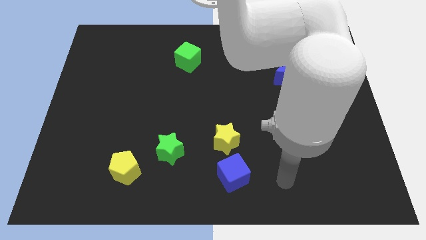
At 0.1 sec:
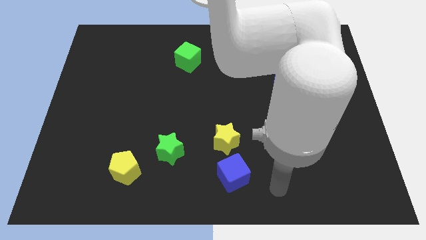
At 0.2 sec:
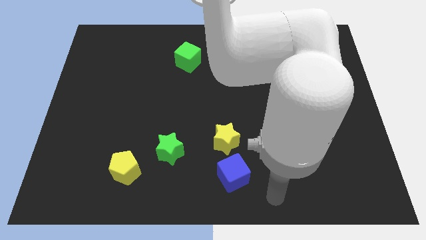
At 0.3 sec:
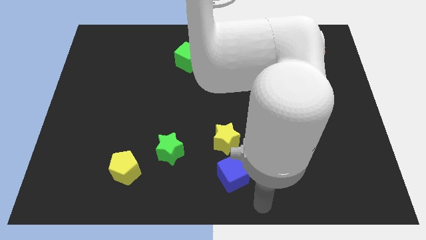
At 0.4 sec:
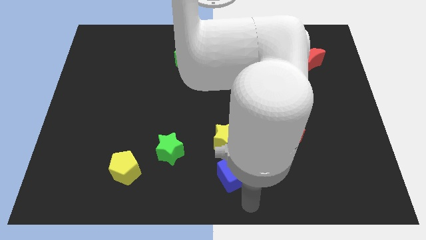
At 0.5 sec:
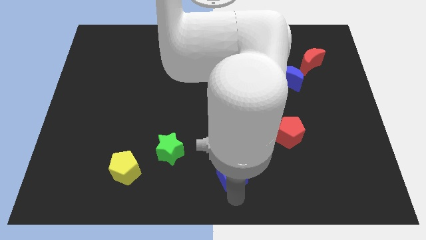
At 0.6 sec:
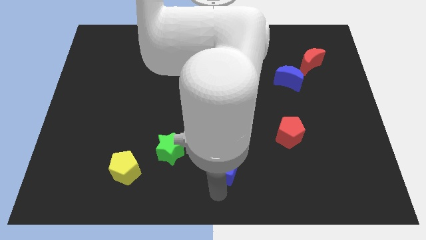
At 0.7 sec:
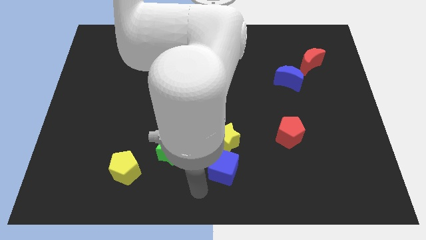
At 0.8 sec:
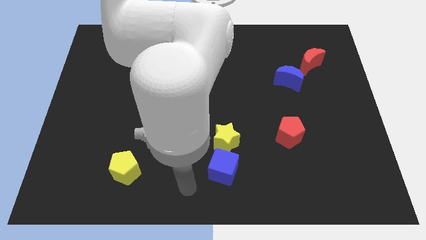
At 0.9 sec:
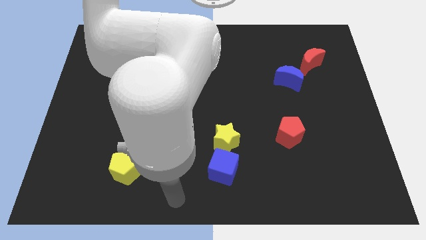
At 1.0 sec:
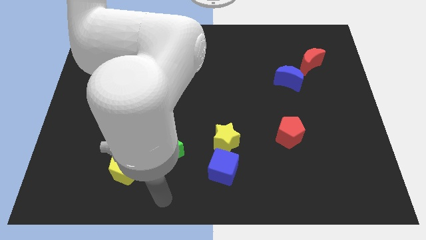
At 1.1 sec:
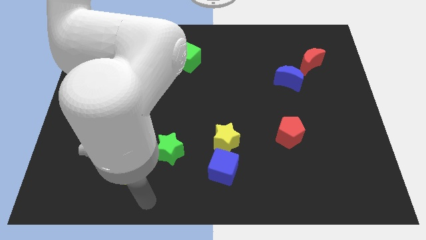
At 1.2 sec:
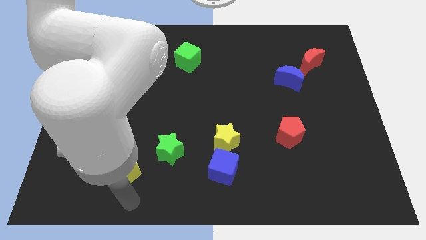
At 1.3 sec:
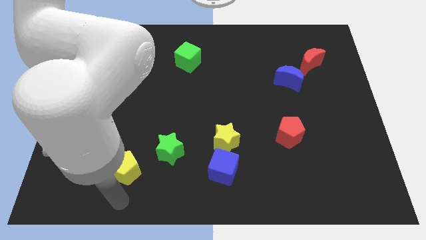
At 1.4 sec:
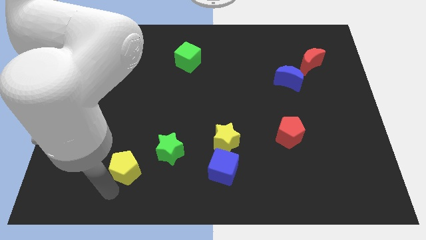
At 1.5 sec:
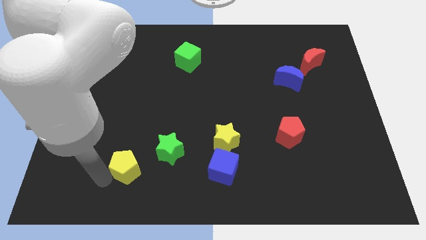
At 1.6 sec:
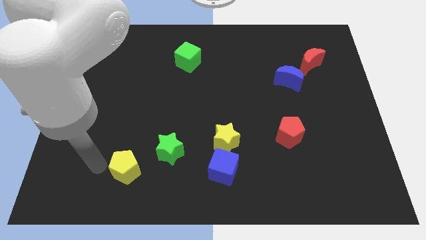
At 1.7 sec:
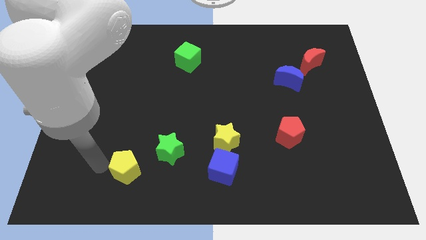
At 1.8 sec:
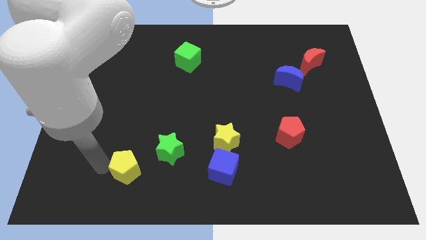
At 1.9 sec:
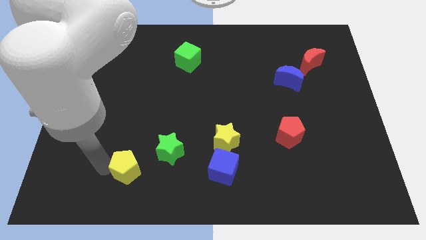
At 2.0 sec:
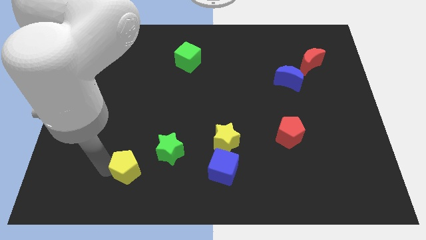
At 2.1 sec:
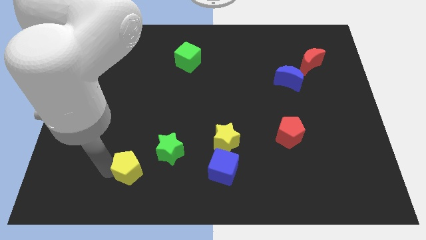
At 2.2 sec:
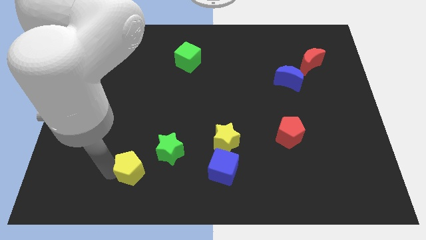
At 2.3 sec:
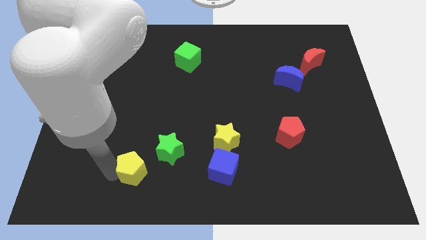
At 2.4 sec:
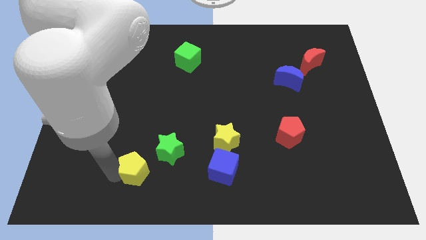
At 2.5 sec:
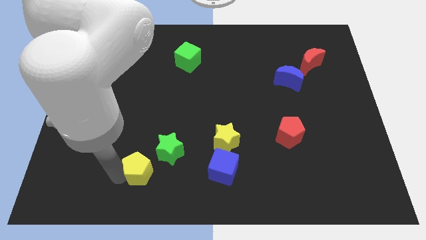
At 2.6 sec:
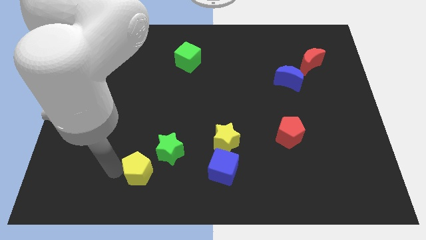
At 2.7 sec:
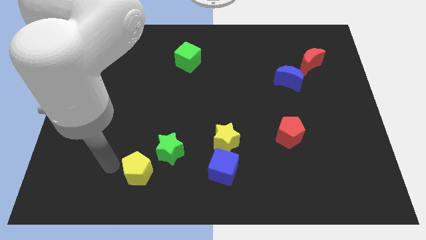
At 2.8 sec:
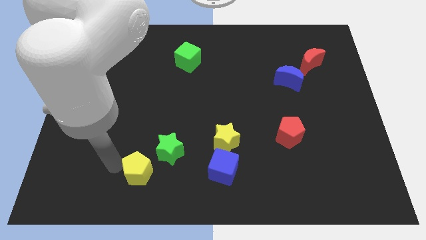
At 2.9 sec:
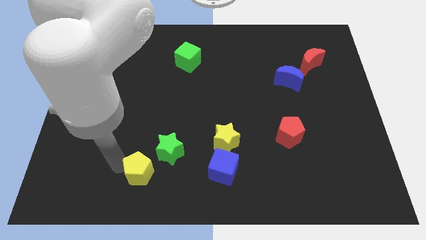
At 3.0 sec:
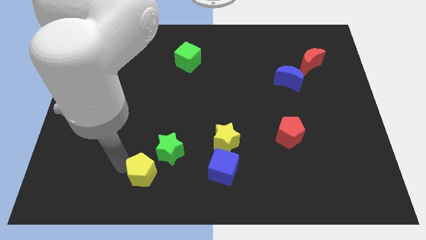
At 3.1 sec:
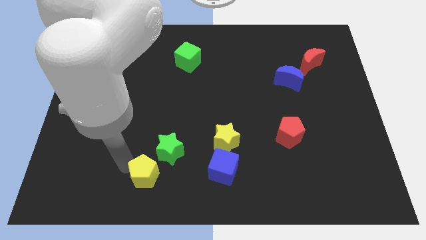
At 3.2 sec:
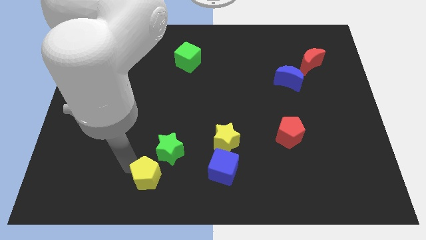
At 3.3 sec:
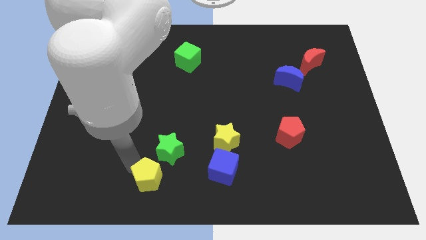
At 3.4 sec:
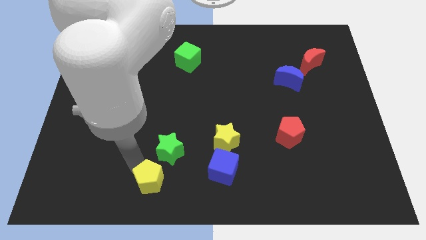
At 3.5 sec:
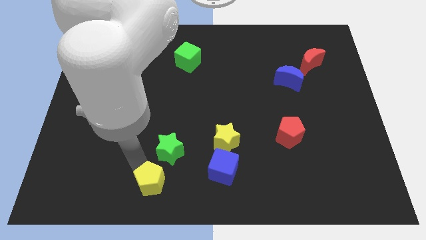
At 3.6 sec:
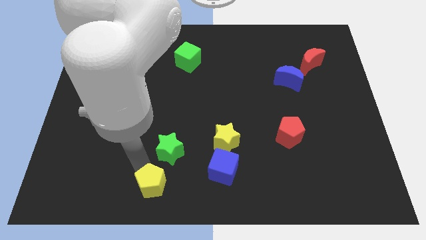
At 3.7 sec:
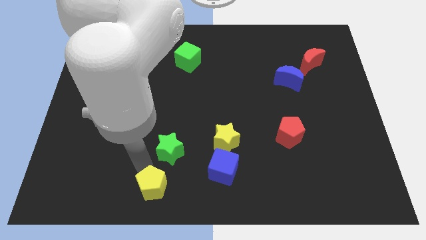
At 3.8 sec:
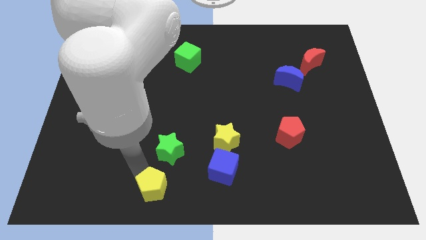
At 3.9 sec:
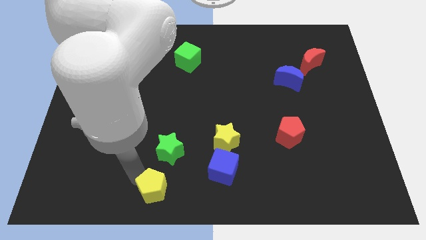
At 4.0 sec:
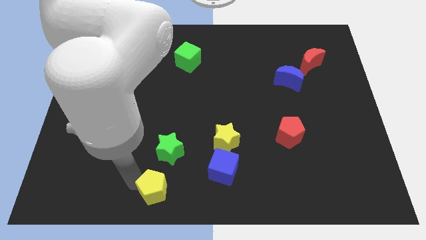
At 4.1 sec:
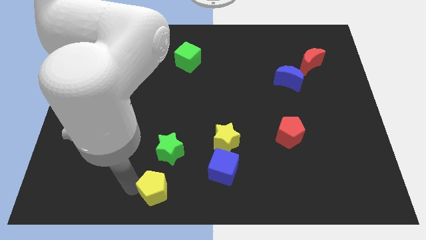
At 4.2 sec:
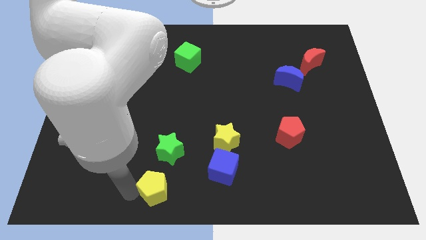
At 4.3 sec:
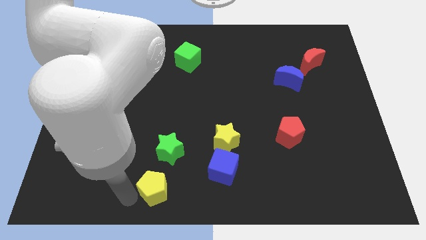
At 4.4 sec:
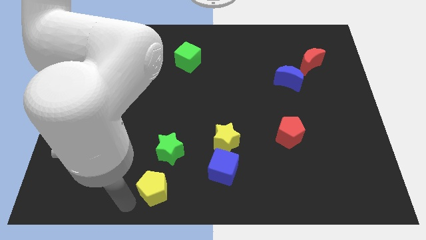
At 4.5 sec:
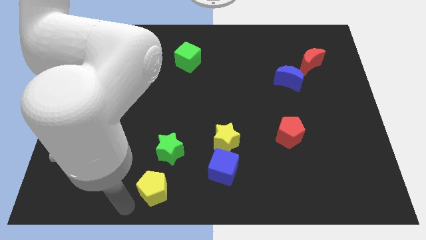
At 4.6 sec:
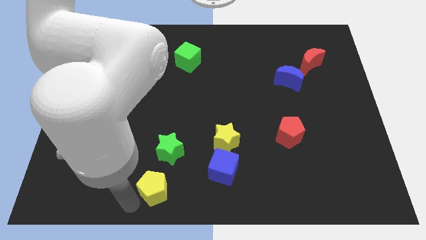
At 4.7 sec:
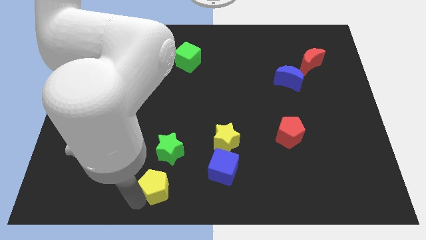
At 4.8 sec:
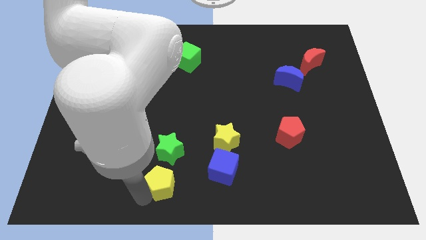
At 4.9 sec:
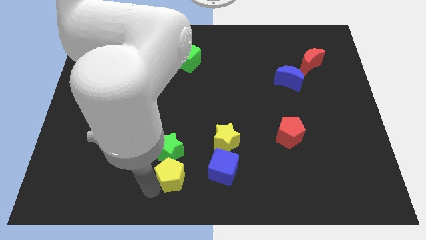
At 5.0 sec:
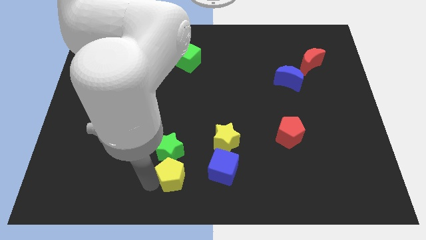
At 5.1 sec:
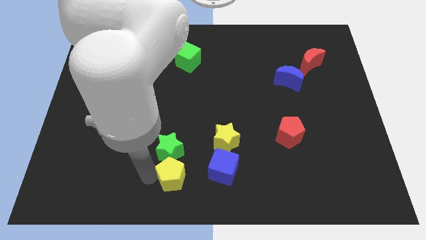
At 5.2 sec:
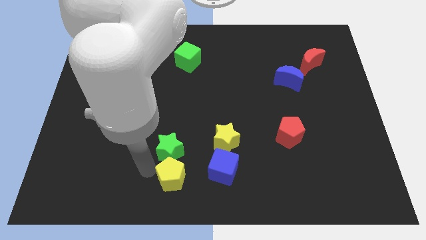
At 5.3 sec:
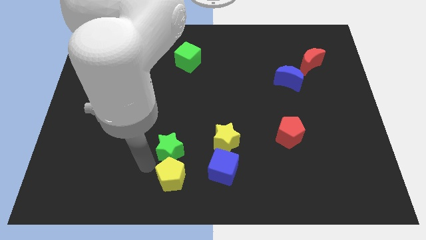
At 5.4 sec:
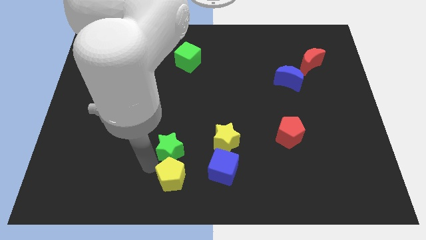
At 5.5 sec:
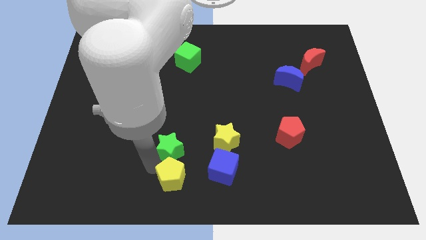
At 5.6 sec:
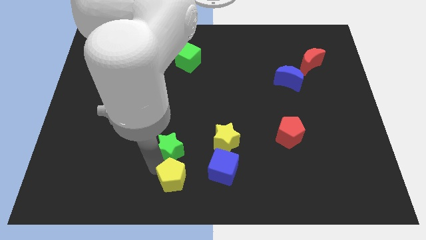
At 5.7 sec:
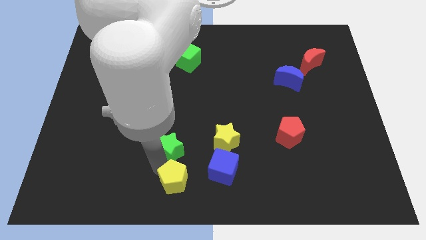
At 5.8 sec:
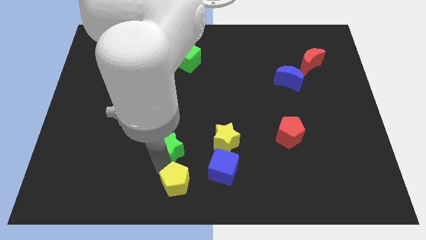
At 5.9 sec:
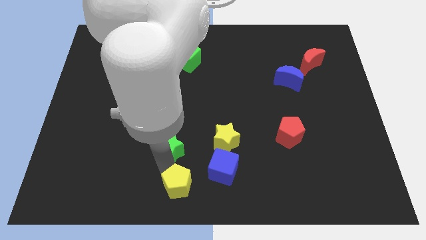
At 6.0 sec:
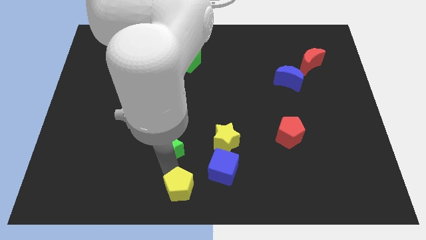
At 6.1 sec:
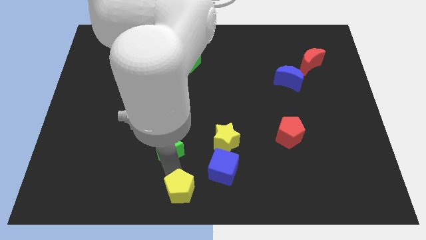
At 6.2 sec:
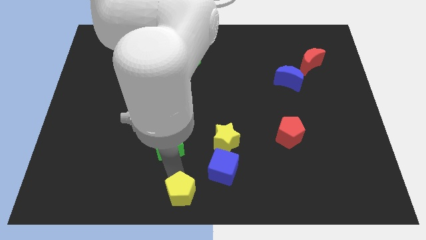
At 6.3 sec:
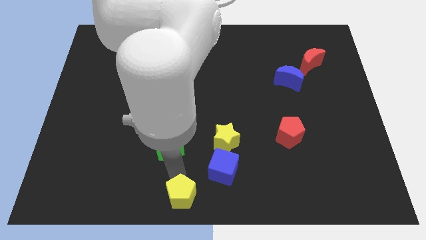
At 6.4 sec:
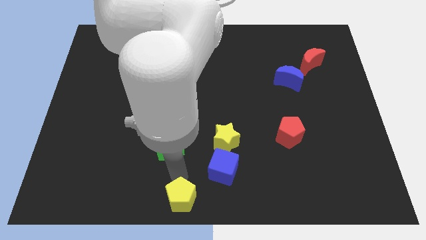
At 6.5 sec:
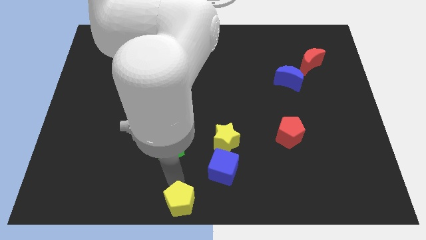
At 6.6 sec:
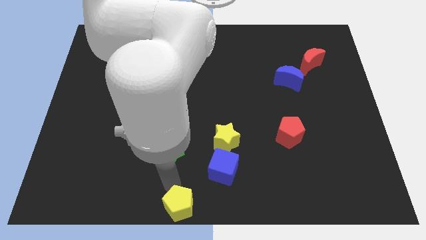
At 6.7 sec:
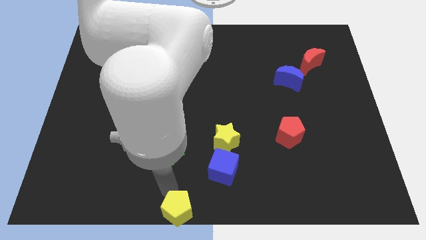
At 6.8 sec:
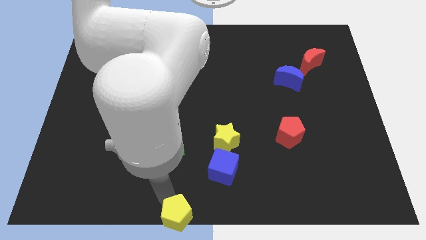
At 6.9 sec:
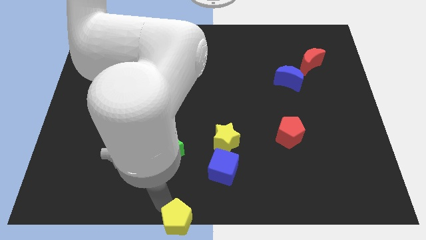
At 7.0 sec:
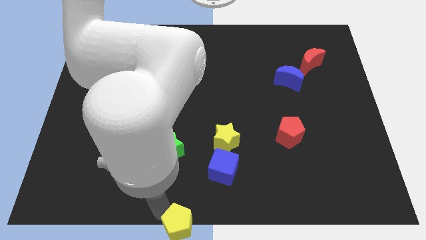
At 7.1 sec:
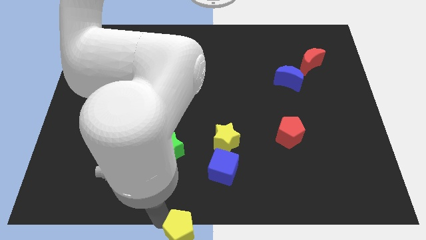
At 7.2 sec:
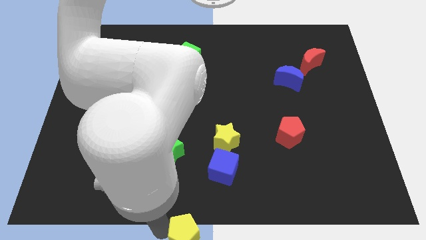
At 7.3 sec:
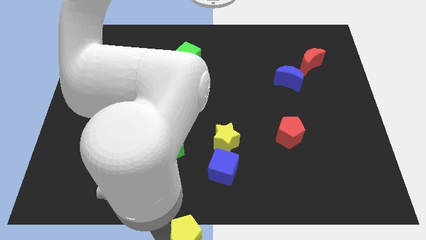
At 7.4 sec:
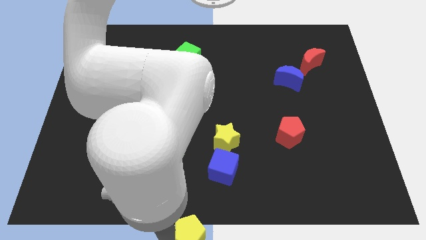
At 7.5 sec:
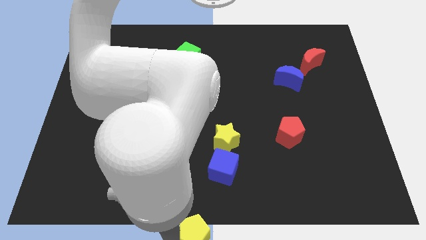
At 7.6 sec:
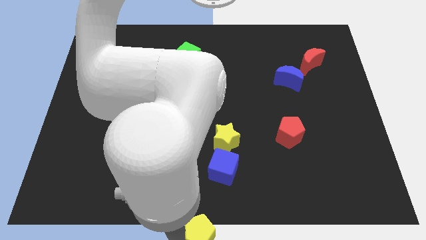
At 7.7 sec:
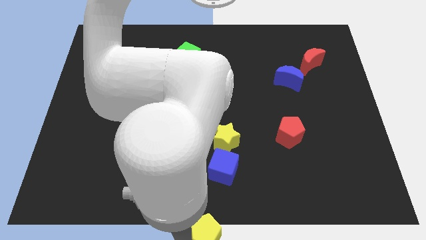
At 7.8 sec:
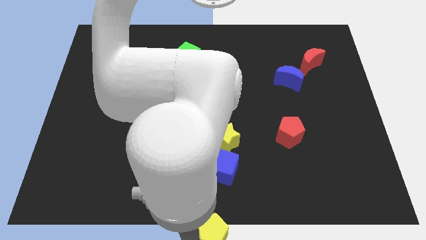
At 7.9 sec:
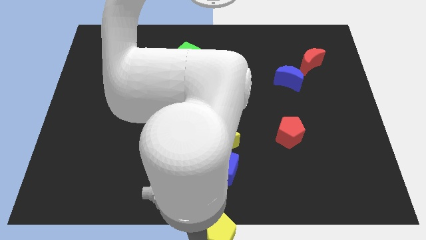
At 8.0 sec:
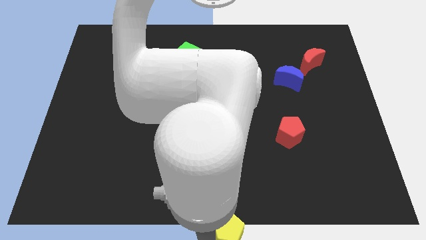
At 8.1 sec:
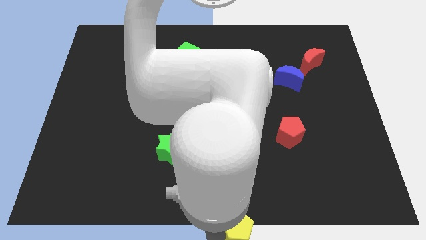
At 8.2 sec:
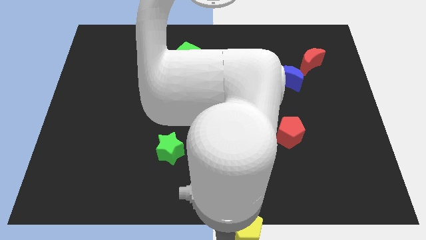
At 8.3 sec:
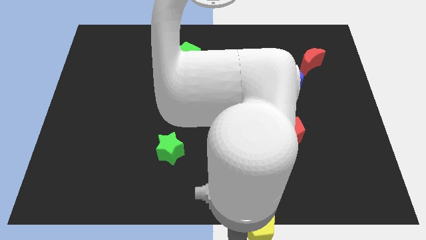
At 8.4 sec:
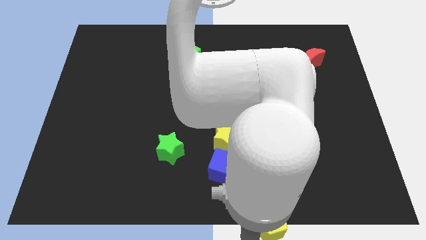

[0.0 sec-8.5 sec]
slide the yellow pentagon right
